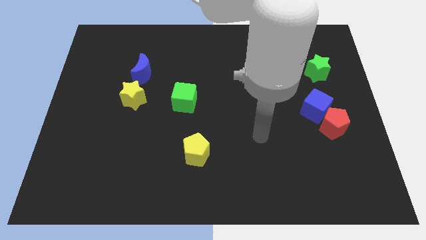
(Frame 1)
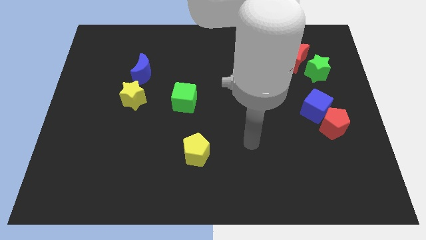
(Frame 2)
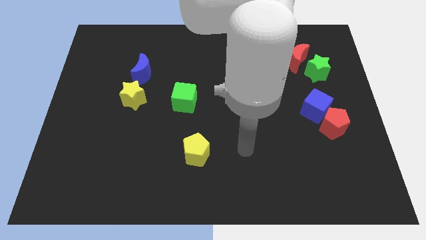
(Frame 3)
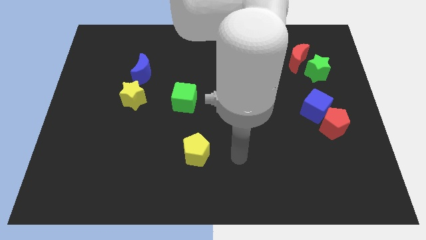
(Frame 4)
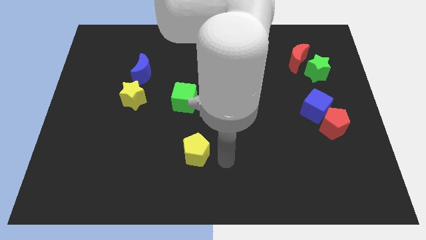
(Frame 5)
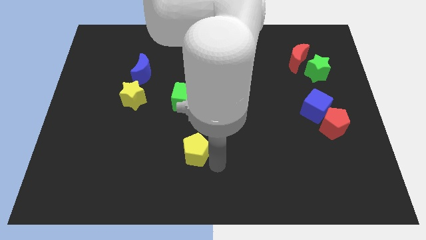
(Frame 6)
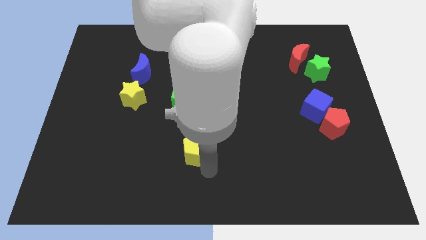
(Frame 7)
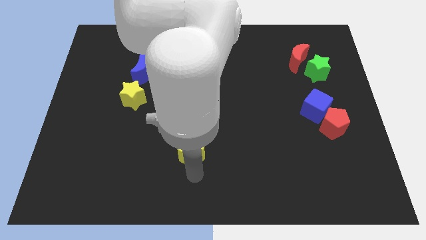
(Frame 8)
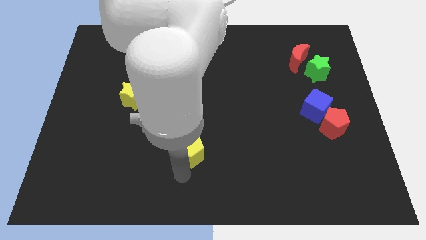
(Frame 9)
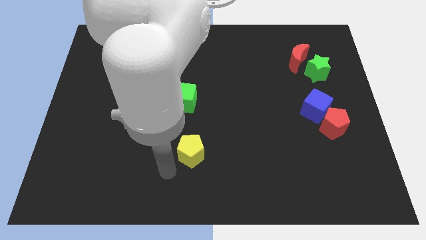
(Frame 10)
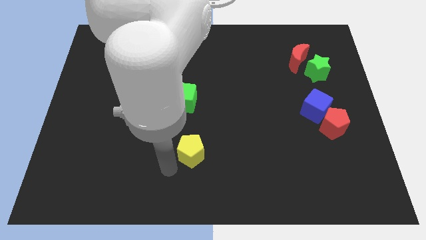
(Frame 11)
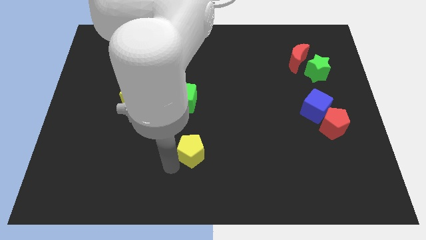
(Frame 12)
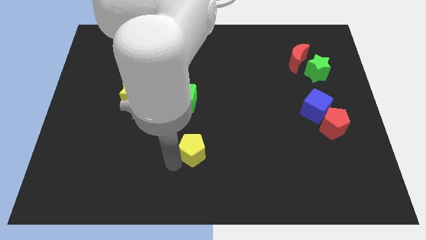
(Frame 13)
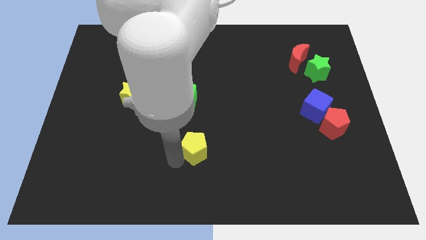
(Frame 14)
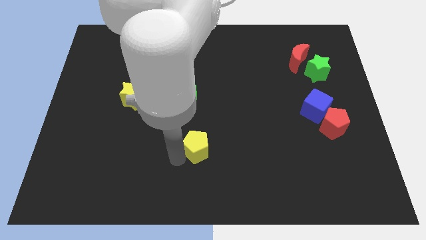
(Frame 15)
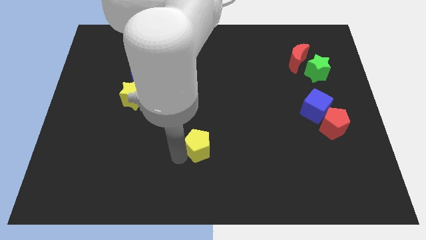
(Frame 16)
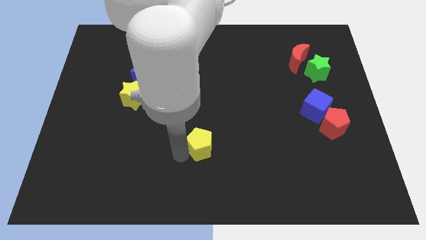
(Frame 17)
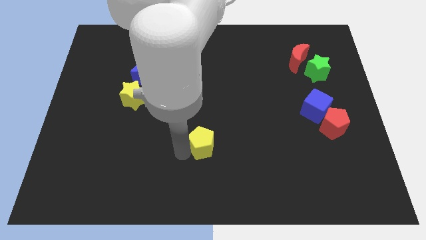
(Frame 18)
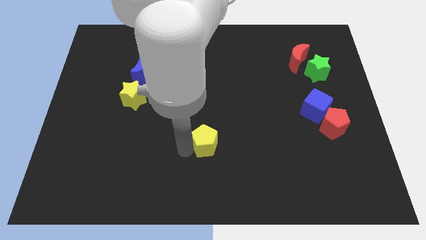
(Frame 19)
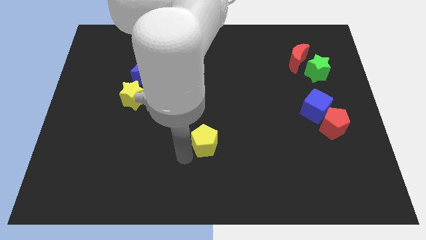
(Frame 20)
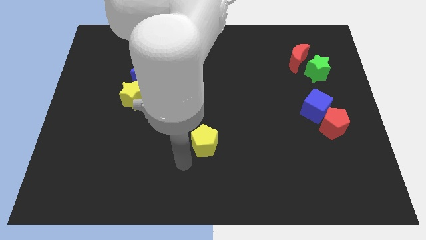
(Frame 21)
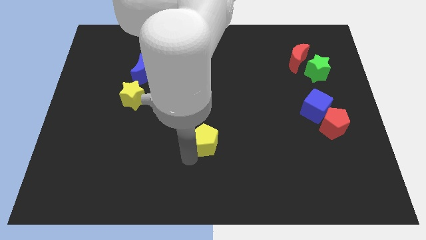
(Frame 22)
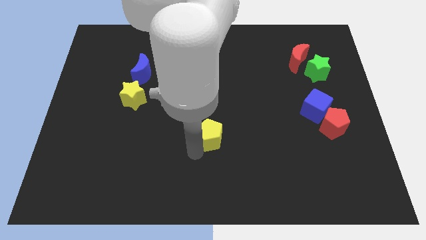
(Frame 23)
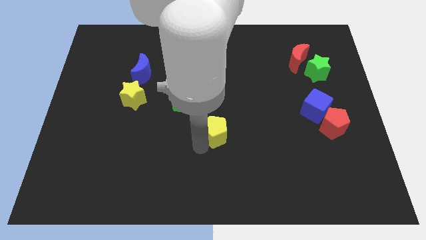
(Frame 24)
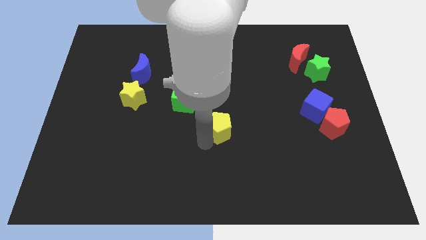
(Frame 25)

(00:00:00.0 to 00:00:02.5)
slide the yellow pentagon upwards and right diagonally a little bit

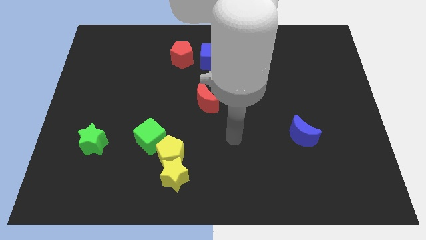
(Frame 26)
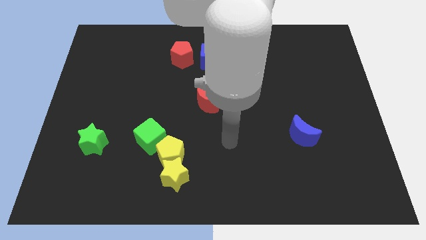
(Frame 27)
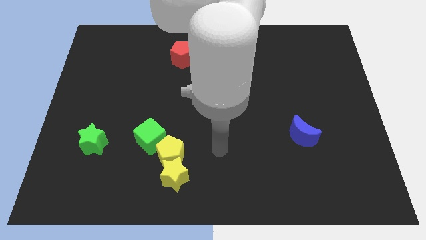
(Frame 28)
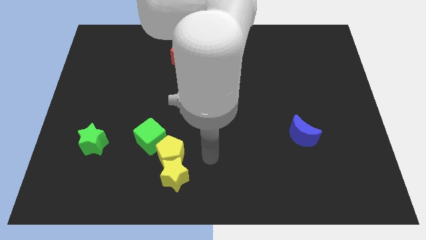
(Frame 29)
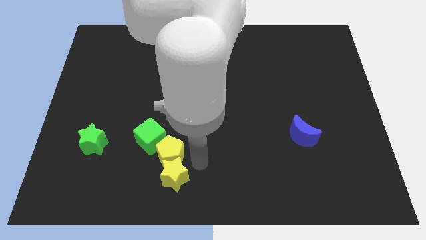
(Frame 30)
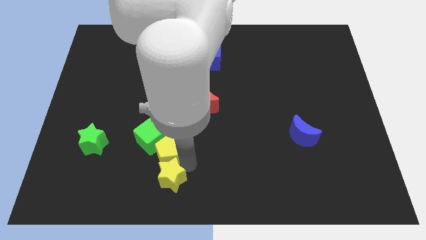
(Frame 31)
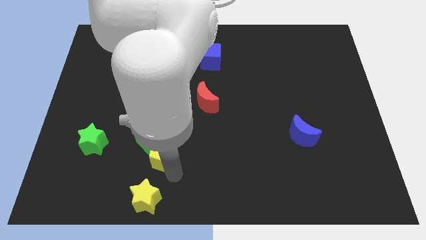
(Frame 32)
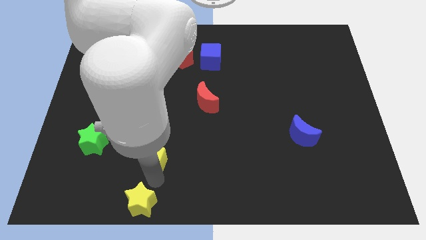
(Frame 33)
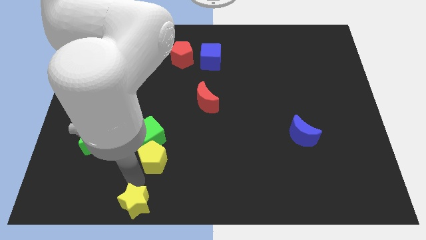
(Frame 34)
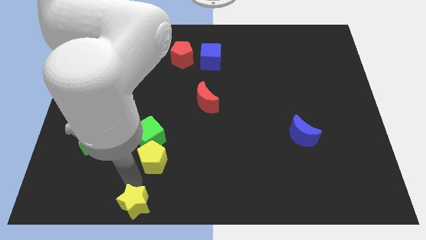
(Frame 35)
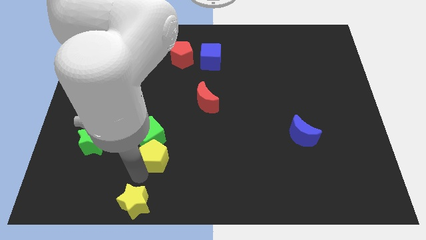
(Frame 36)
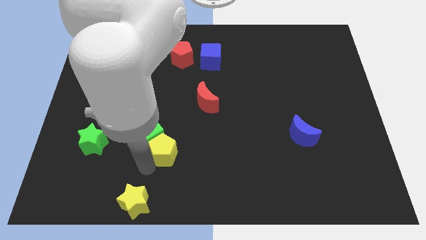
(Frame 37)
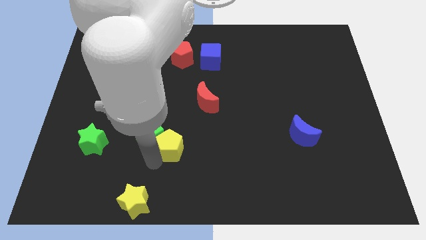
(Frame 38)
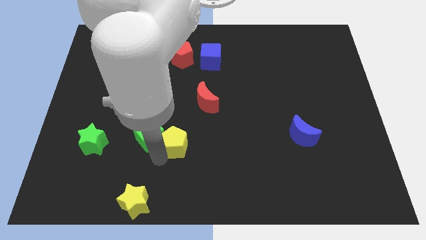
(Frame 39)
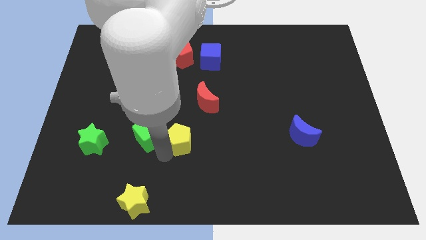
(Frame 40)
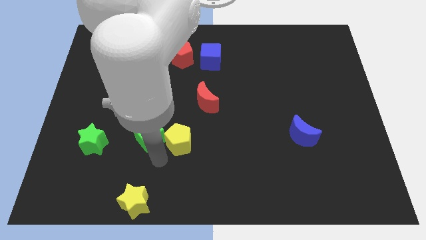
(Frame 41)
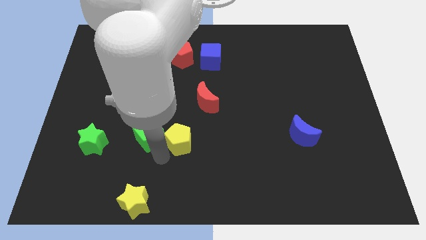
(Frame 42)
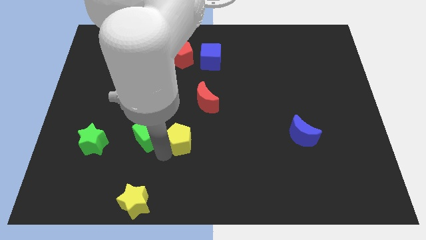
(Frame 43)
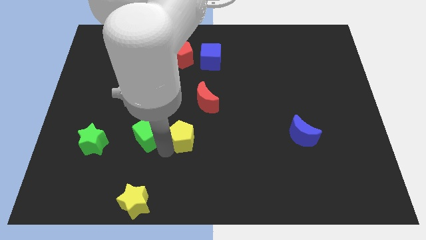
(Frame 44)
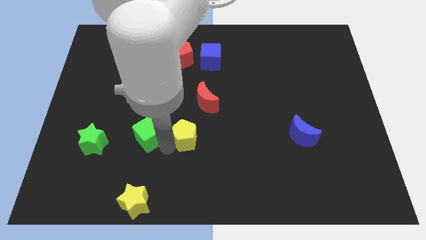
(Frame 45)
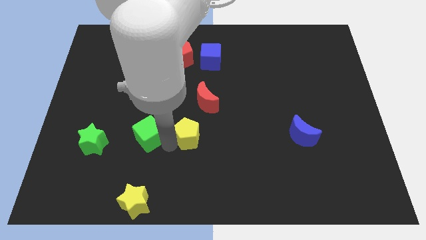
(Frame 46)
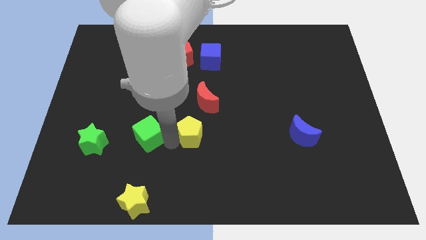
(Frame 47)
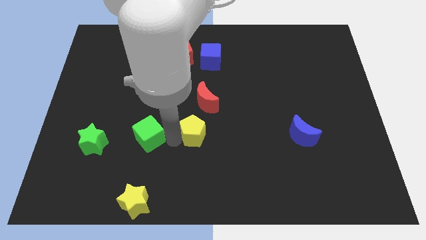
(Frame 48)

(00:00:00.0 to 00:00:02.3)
slide the yellow pentagon slightly upwards and then to the right

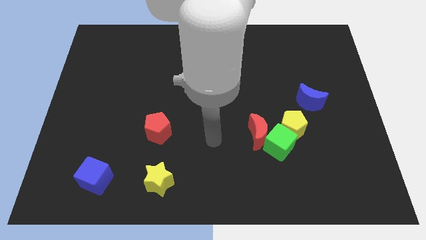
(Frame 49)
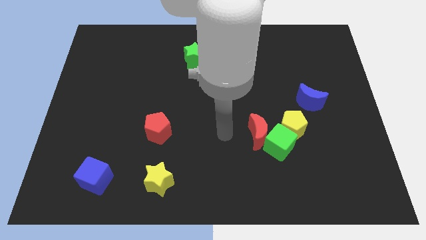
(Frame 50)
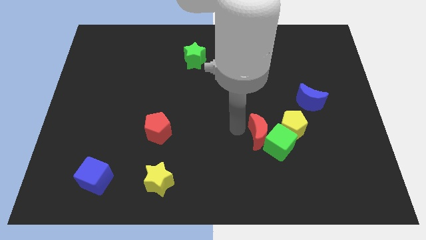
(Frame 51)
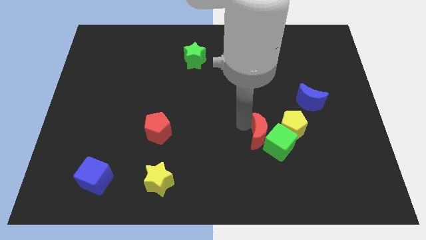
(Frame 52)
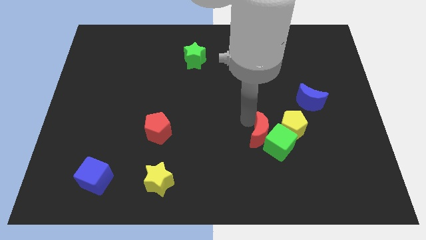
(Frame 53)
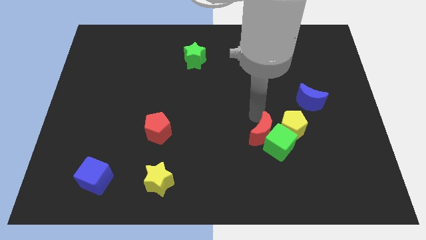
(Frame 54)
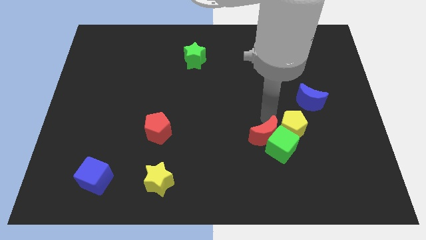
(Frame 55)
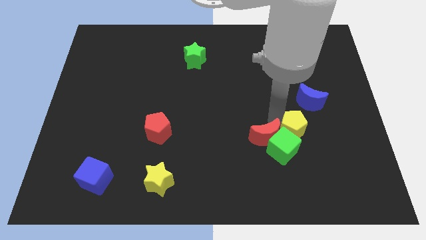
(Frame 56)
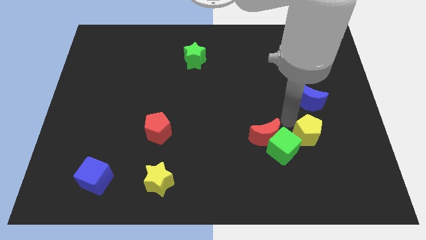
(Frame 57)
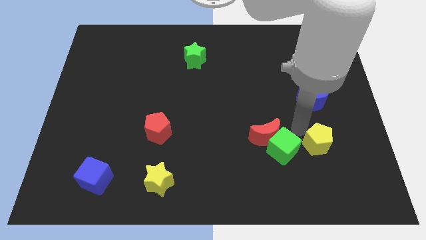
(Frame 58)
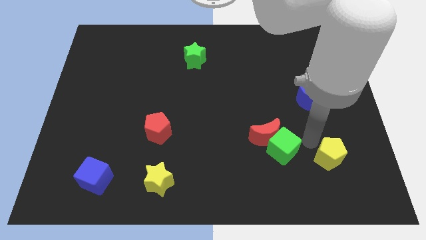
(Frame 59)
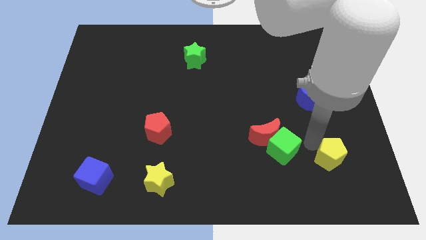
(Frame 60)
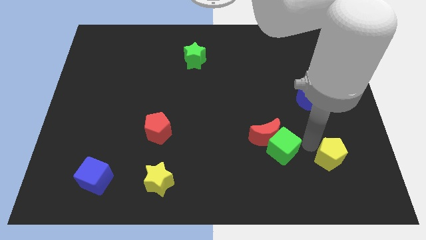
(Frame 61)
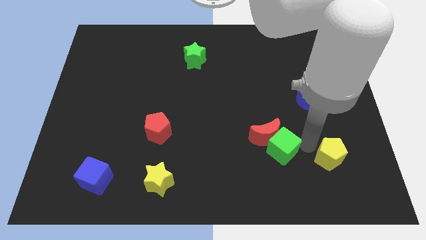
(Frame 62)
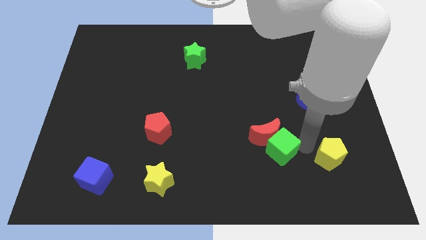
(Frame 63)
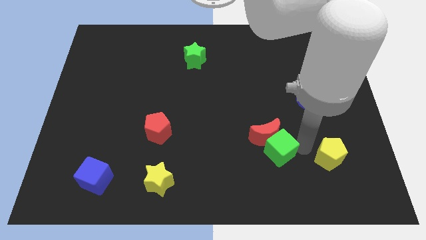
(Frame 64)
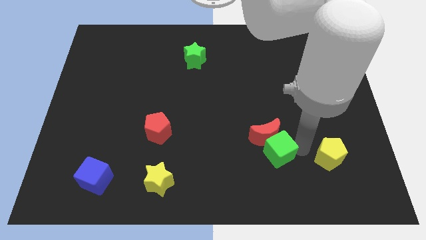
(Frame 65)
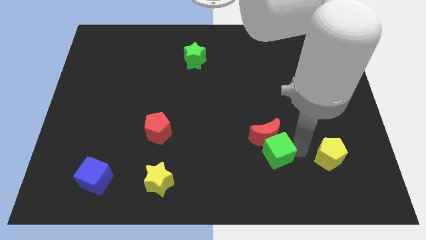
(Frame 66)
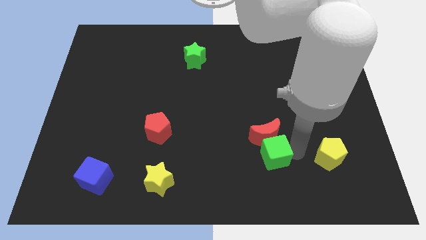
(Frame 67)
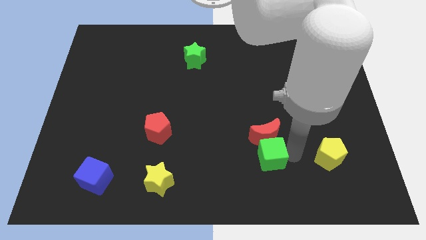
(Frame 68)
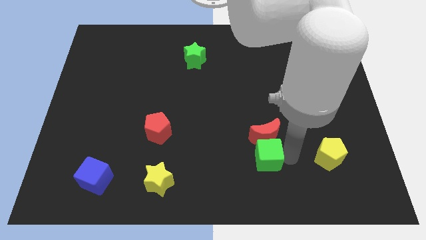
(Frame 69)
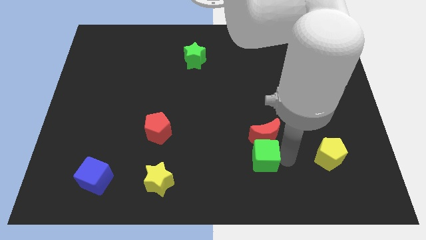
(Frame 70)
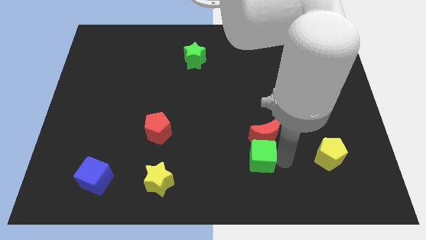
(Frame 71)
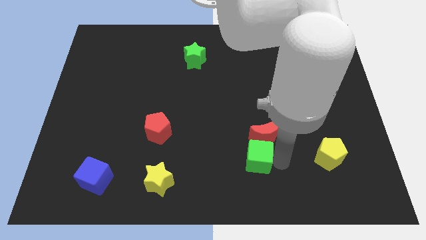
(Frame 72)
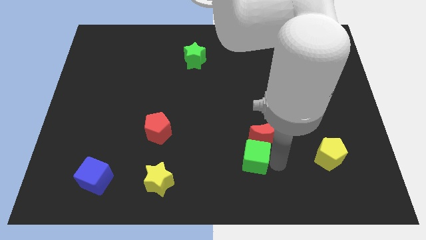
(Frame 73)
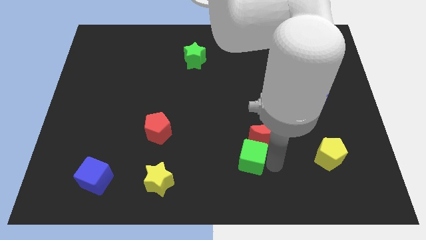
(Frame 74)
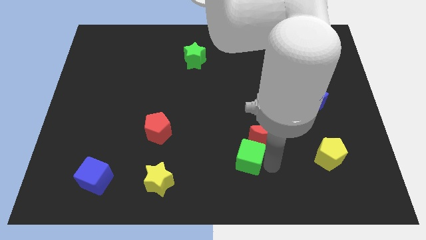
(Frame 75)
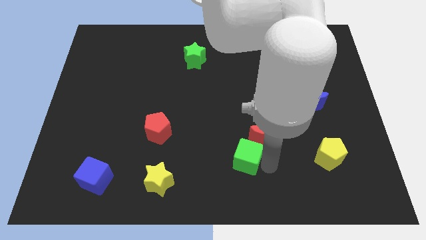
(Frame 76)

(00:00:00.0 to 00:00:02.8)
slightly move the green cube left

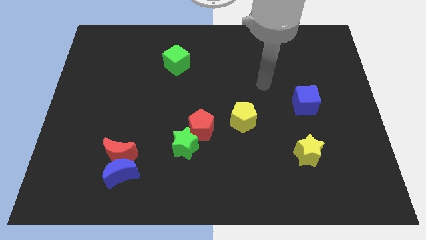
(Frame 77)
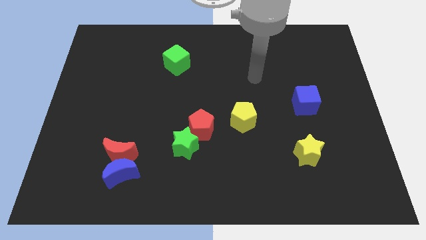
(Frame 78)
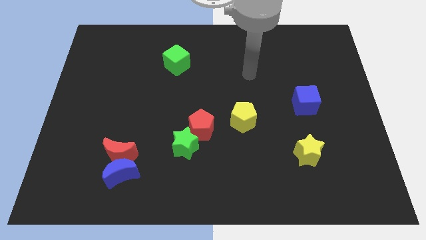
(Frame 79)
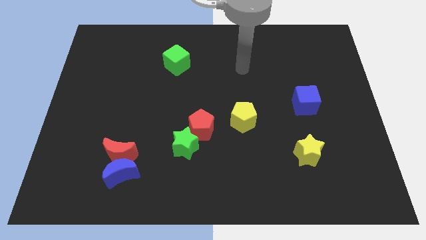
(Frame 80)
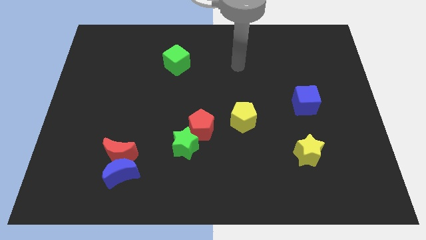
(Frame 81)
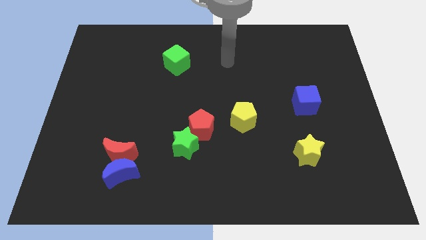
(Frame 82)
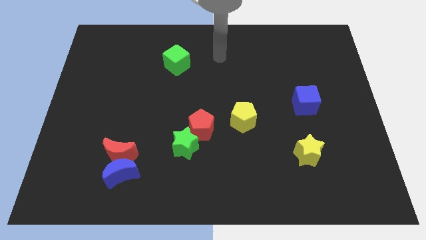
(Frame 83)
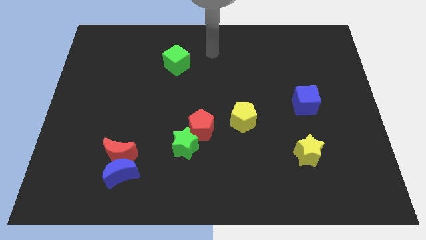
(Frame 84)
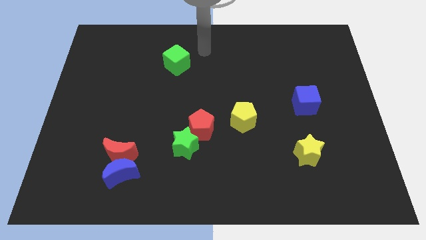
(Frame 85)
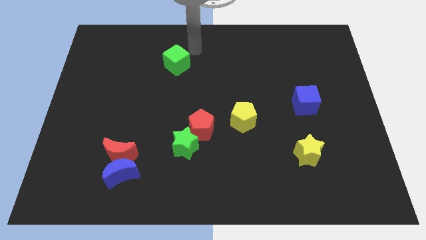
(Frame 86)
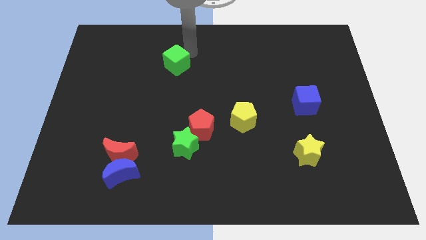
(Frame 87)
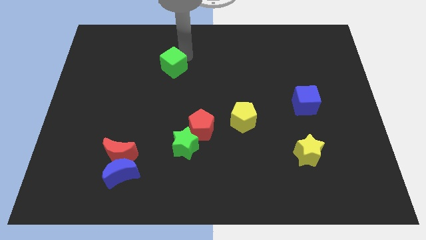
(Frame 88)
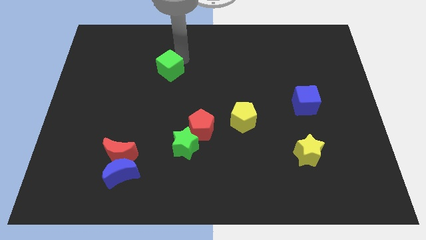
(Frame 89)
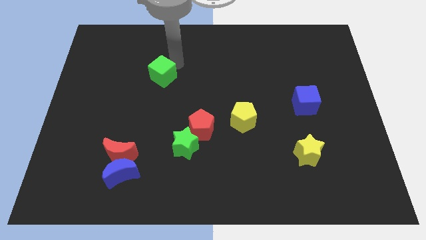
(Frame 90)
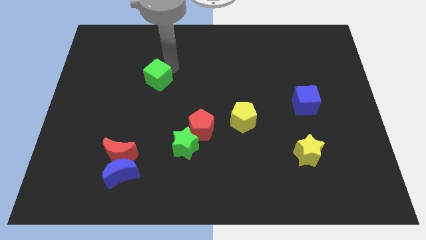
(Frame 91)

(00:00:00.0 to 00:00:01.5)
move the green cube diagonally down and left somewhat
